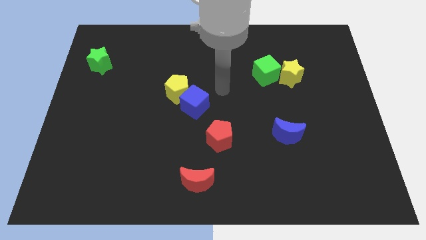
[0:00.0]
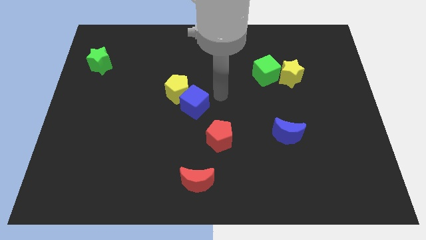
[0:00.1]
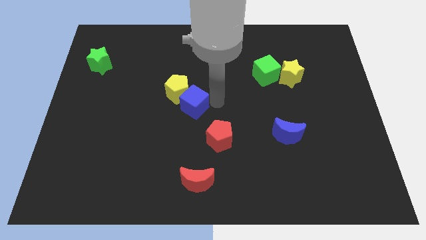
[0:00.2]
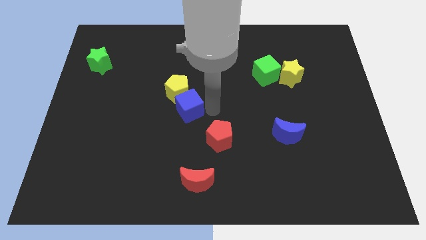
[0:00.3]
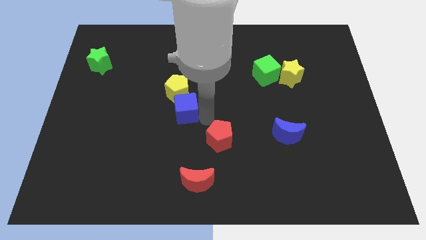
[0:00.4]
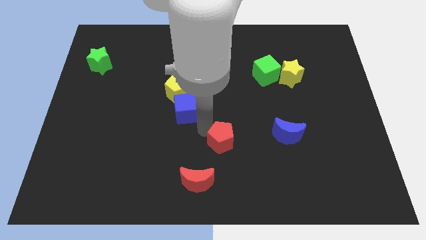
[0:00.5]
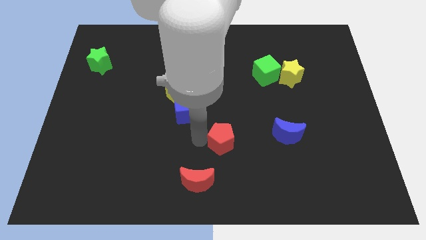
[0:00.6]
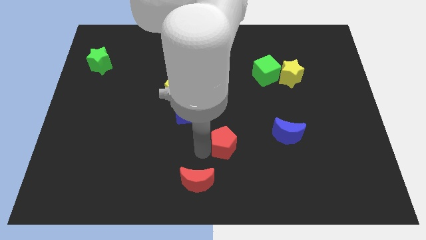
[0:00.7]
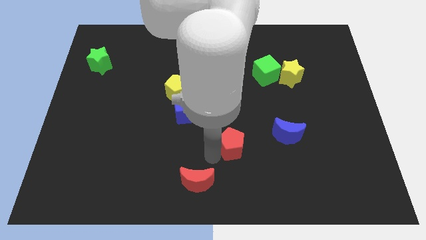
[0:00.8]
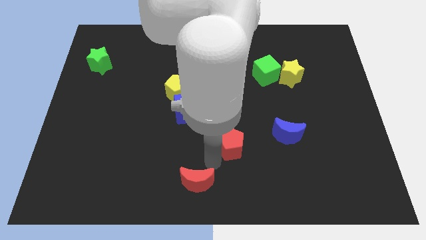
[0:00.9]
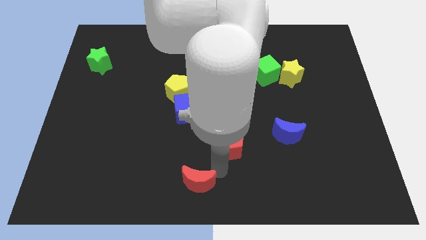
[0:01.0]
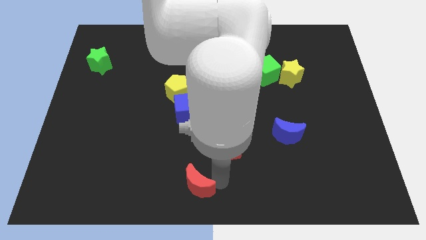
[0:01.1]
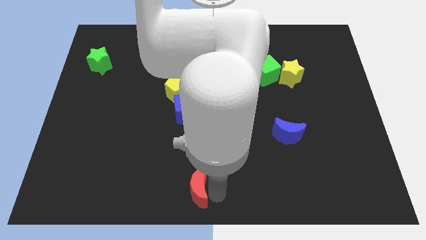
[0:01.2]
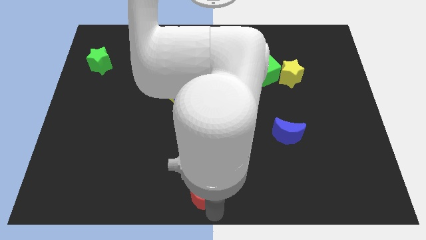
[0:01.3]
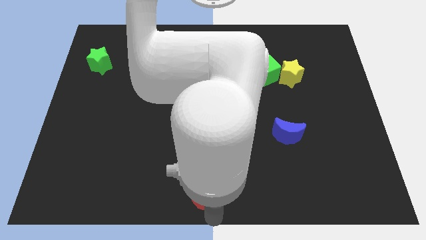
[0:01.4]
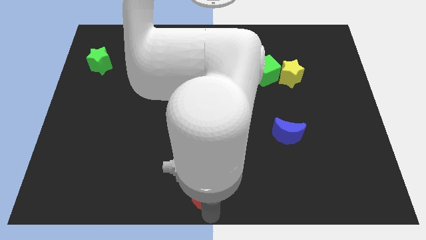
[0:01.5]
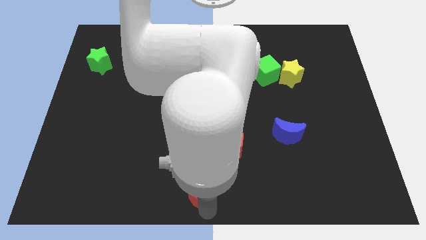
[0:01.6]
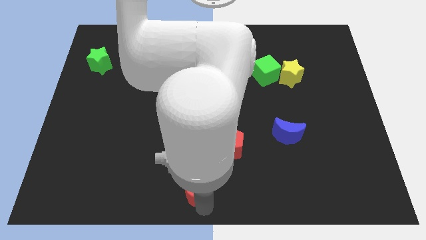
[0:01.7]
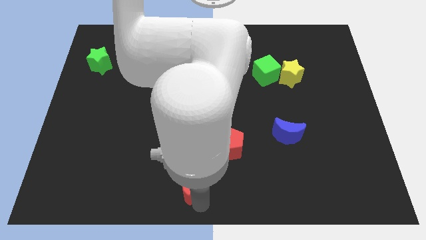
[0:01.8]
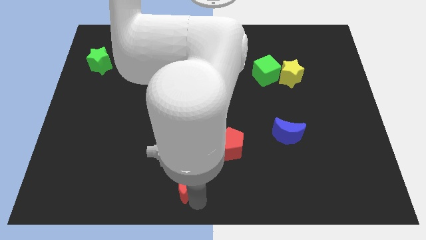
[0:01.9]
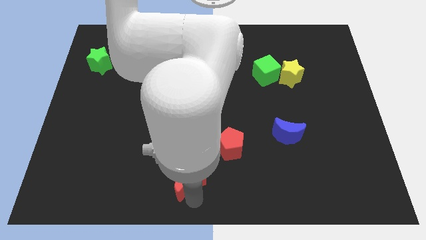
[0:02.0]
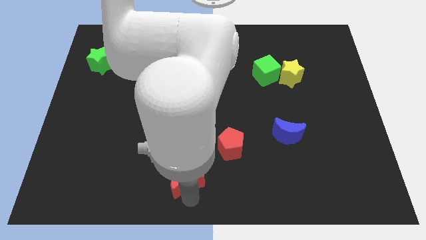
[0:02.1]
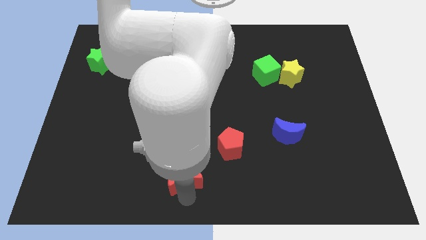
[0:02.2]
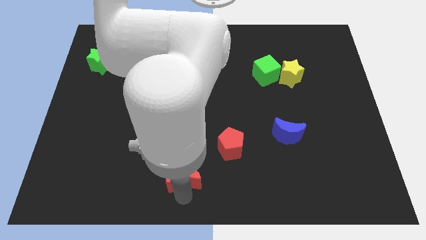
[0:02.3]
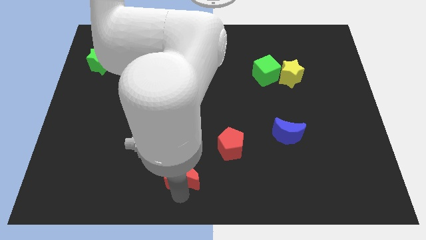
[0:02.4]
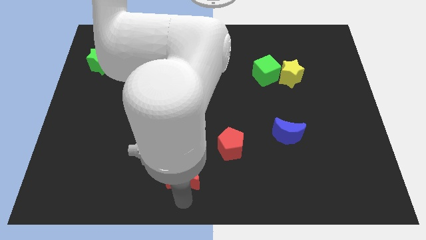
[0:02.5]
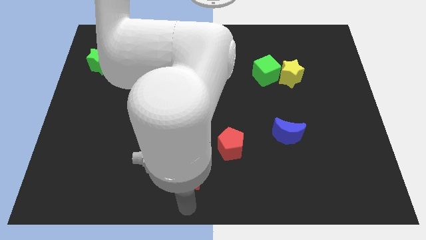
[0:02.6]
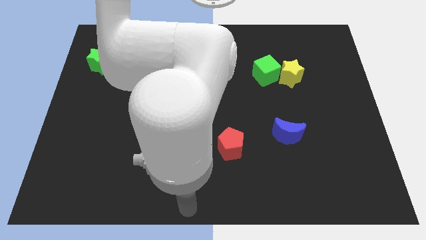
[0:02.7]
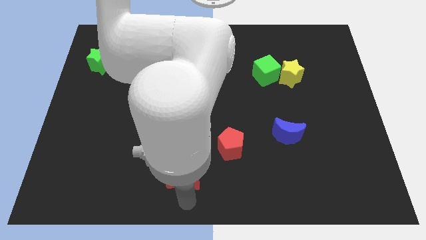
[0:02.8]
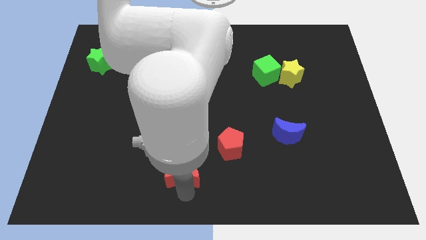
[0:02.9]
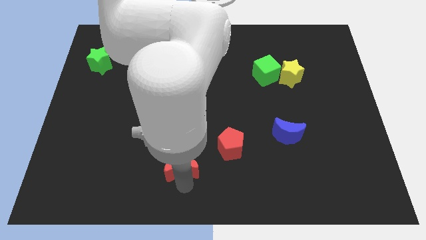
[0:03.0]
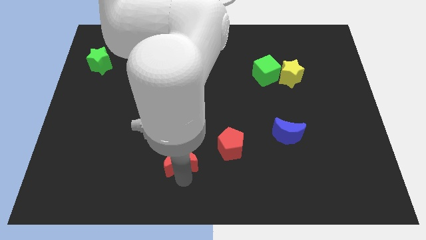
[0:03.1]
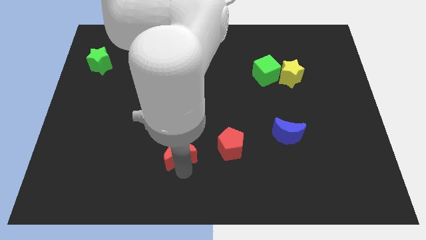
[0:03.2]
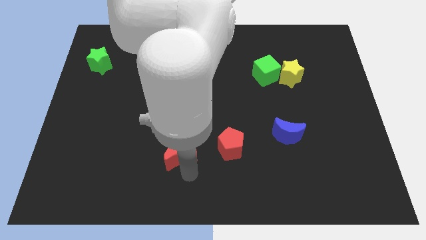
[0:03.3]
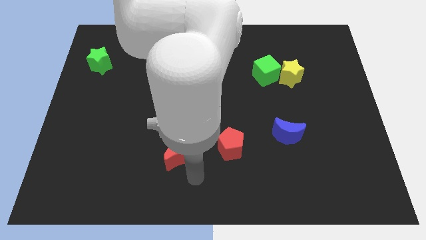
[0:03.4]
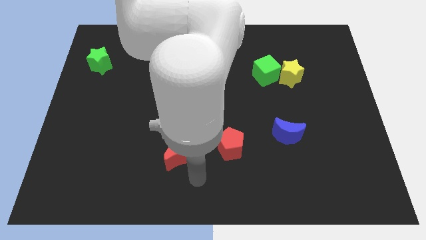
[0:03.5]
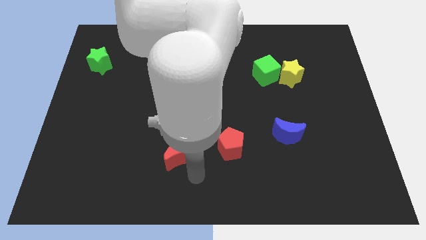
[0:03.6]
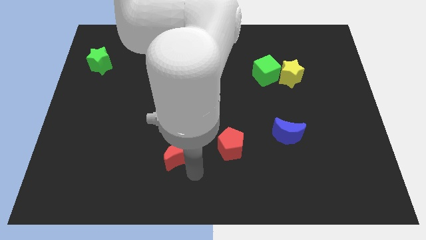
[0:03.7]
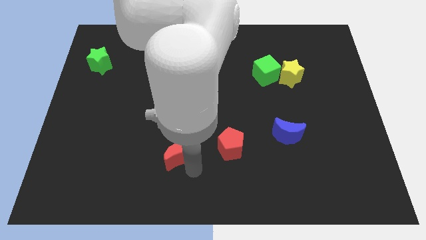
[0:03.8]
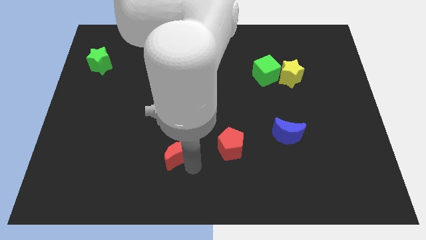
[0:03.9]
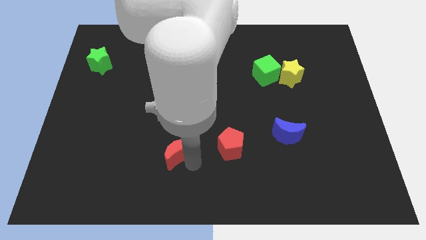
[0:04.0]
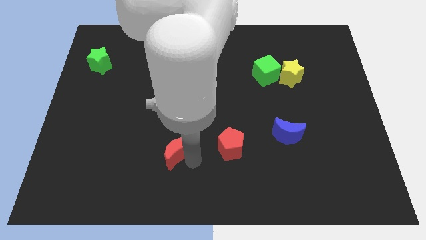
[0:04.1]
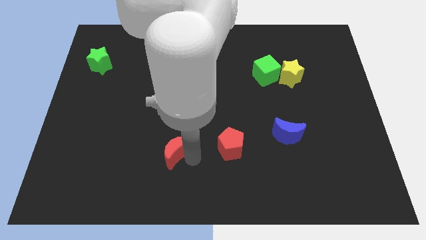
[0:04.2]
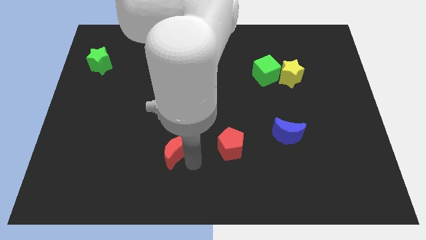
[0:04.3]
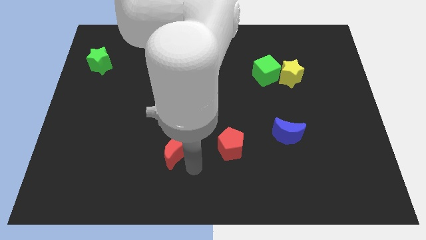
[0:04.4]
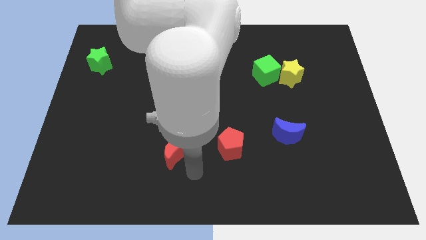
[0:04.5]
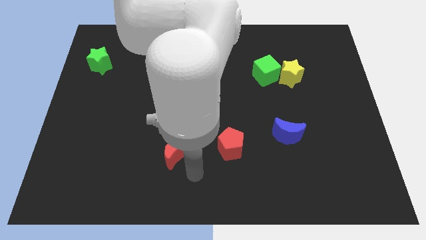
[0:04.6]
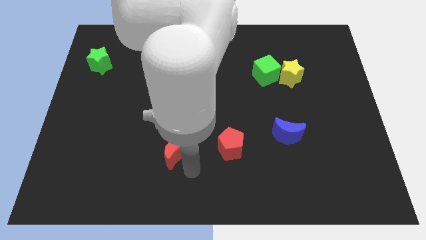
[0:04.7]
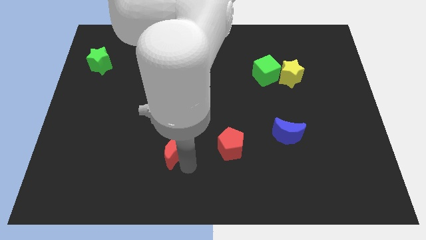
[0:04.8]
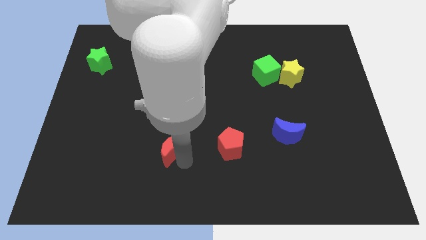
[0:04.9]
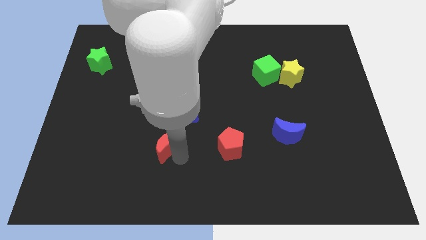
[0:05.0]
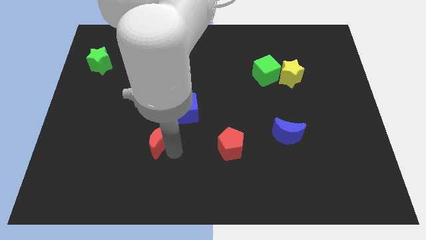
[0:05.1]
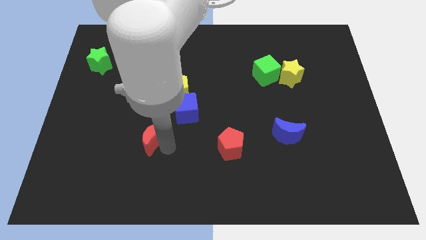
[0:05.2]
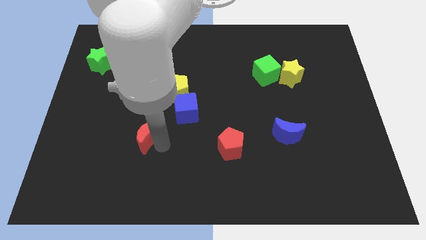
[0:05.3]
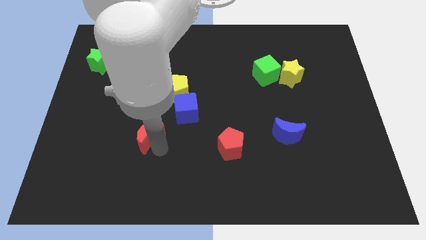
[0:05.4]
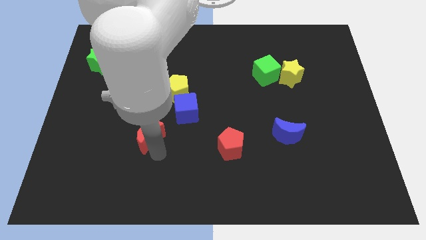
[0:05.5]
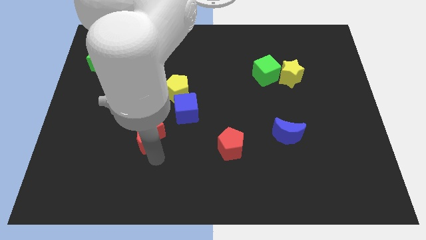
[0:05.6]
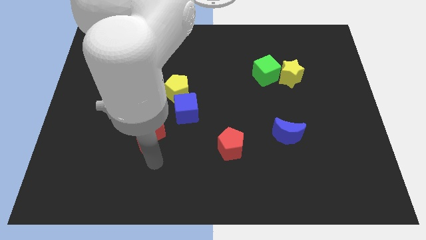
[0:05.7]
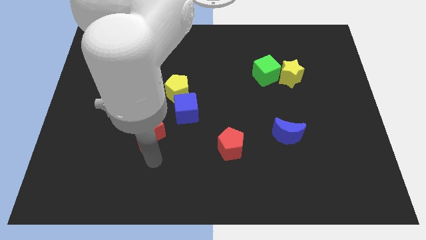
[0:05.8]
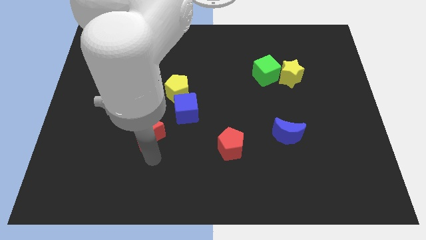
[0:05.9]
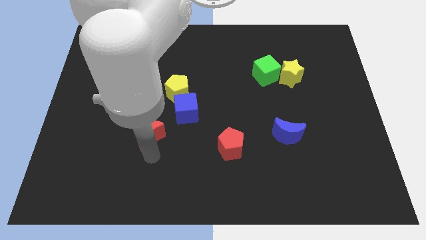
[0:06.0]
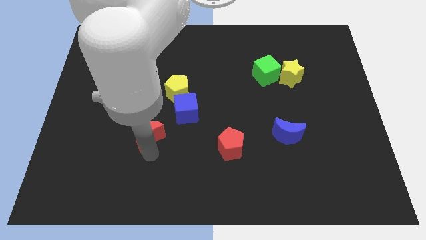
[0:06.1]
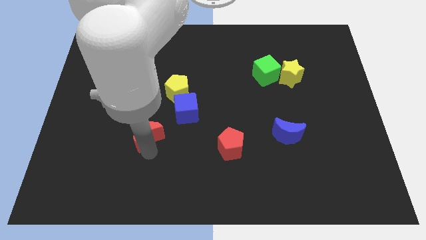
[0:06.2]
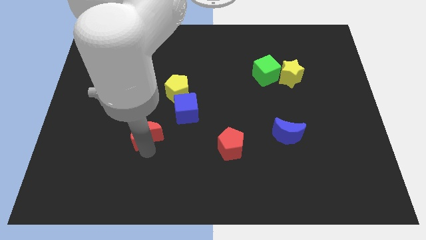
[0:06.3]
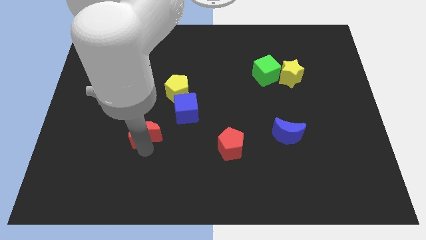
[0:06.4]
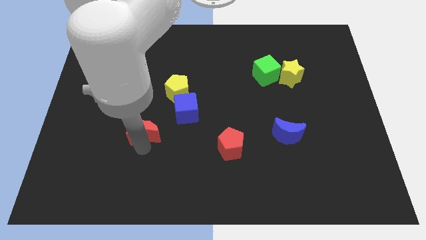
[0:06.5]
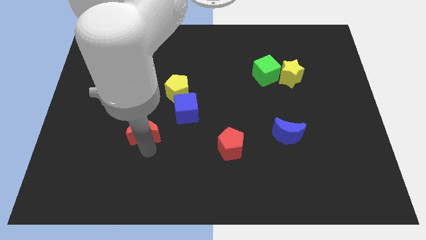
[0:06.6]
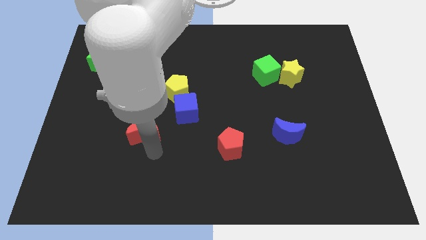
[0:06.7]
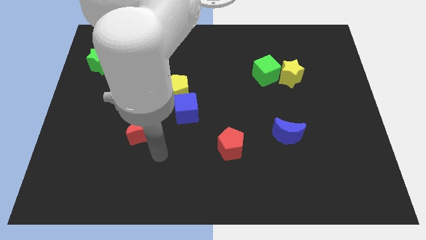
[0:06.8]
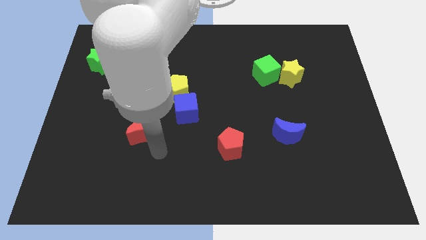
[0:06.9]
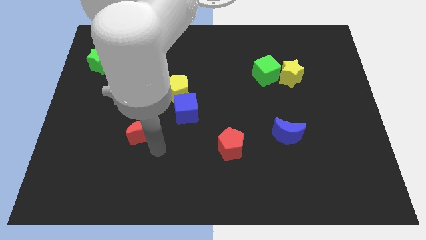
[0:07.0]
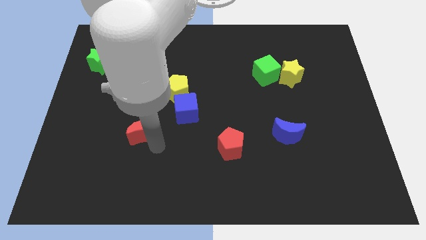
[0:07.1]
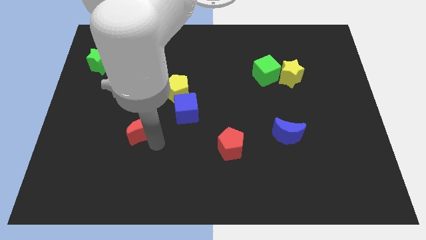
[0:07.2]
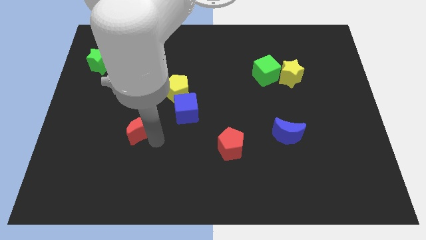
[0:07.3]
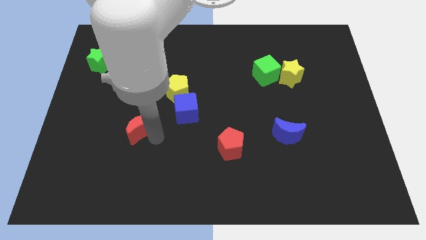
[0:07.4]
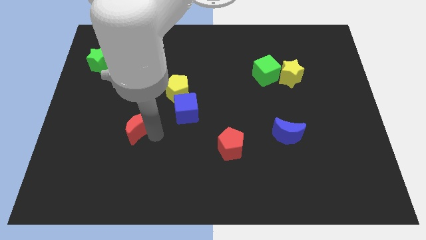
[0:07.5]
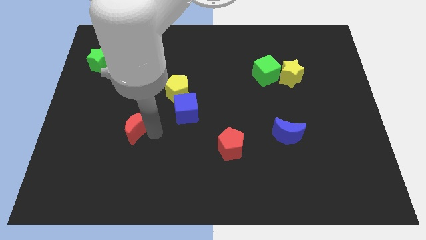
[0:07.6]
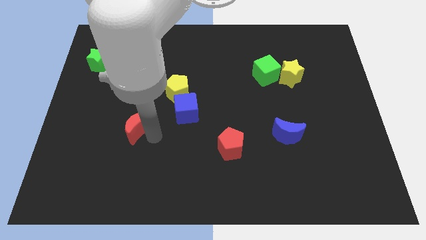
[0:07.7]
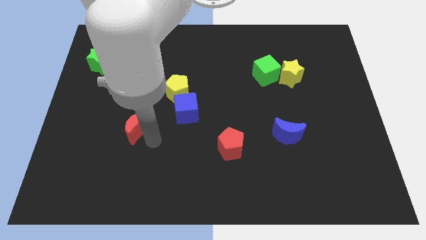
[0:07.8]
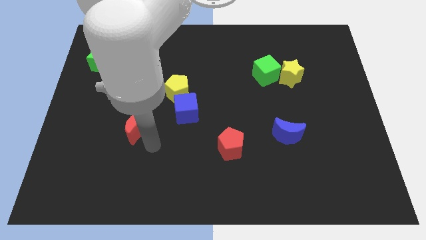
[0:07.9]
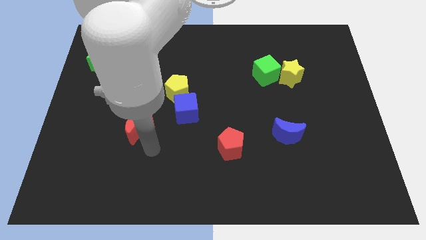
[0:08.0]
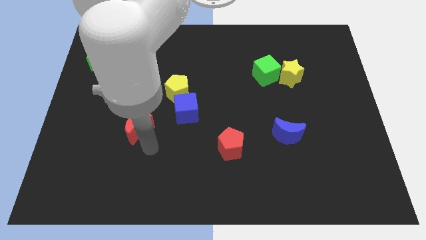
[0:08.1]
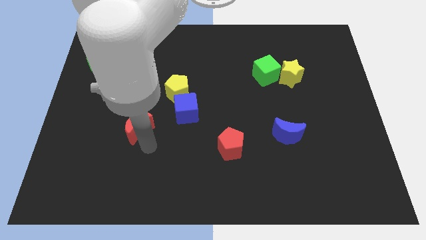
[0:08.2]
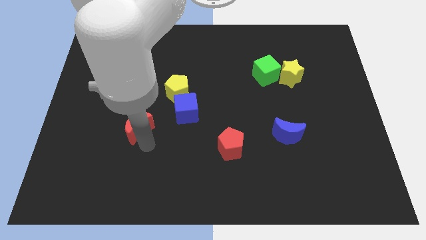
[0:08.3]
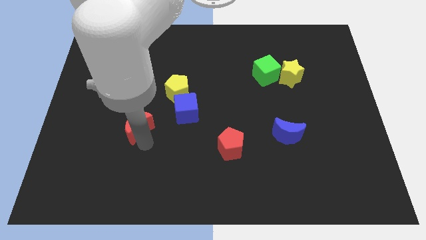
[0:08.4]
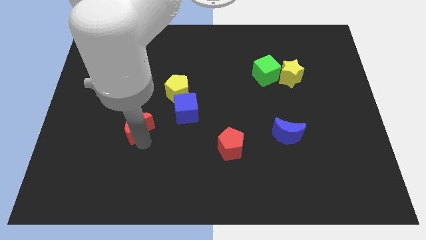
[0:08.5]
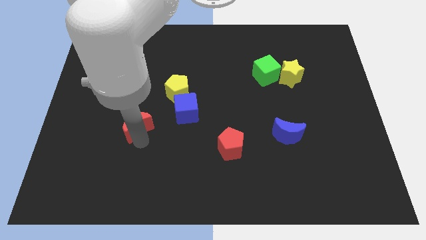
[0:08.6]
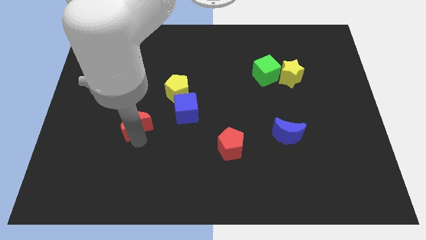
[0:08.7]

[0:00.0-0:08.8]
move the red moon diagonally up and to the left
